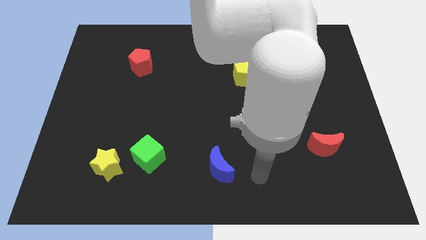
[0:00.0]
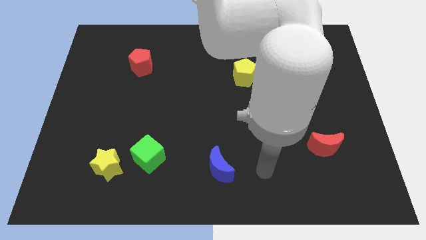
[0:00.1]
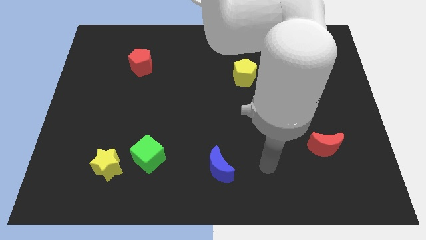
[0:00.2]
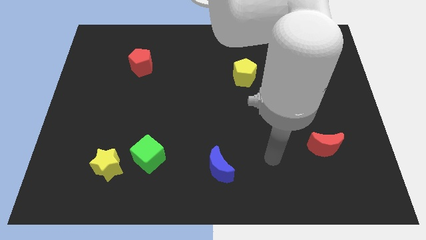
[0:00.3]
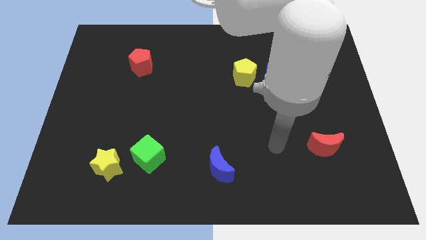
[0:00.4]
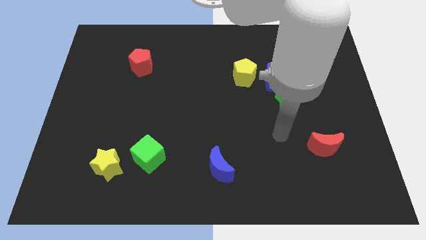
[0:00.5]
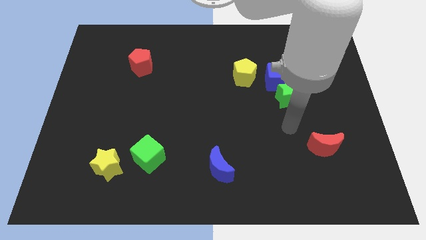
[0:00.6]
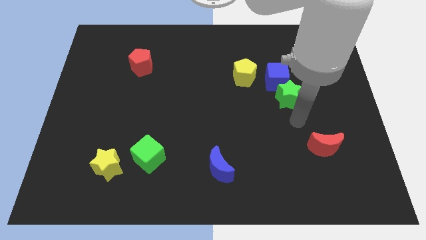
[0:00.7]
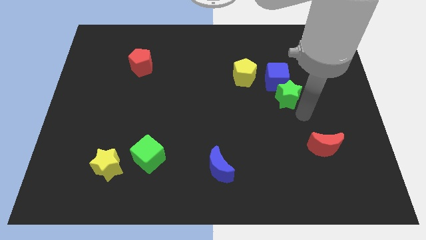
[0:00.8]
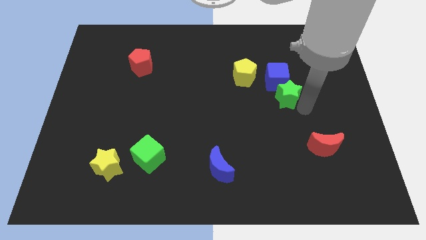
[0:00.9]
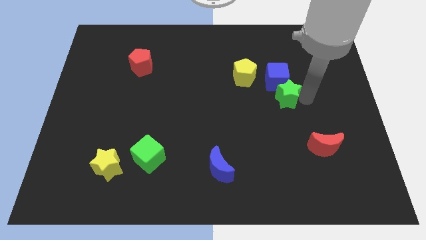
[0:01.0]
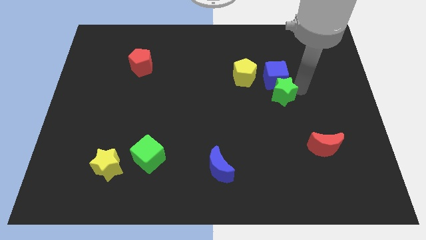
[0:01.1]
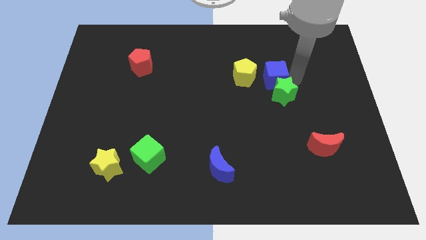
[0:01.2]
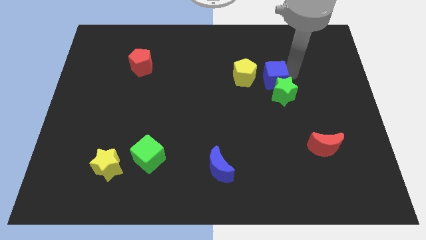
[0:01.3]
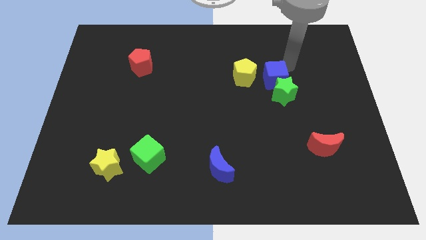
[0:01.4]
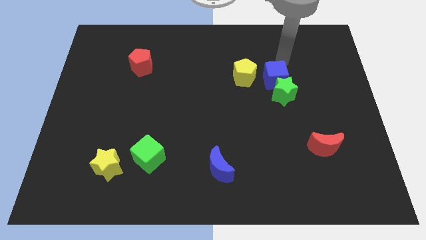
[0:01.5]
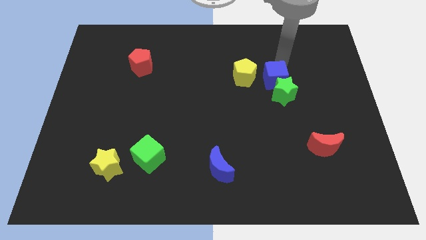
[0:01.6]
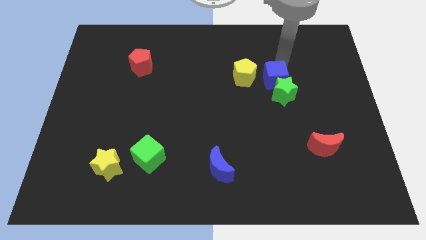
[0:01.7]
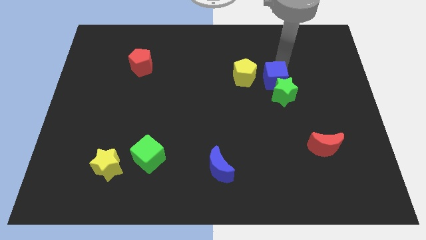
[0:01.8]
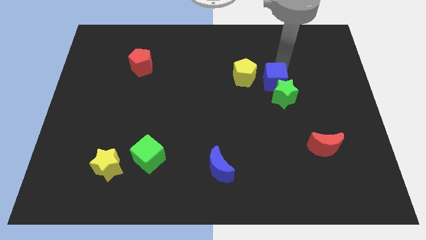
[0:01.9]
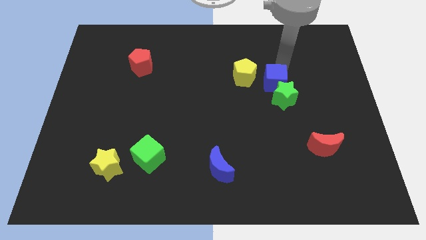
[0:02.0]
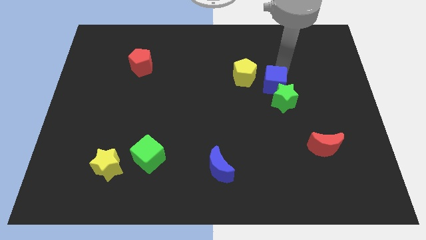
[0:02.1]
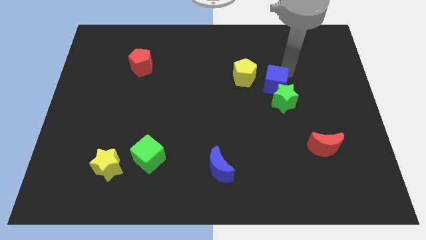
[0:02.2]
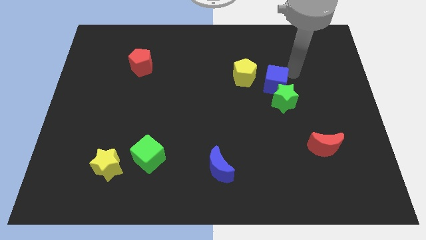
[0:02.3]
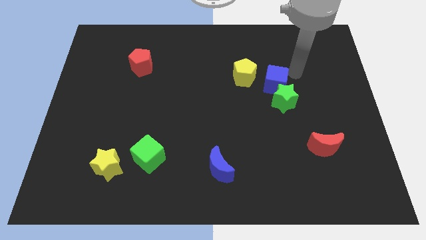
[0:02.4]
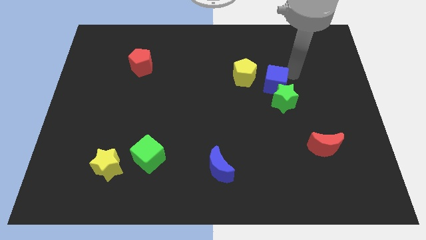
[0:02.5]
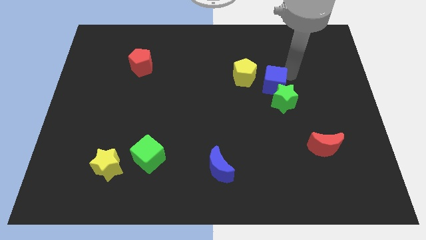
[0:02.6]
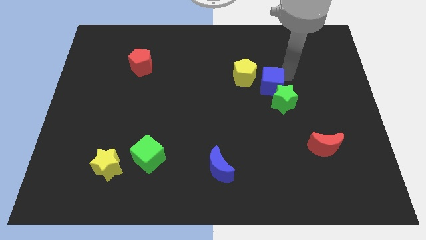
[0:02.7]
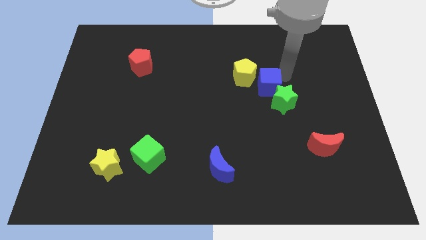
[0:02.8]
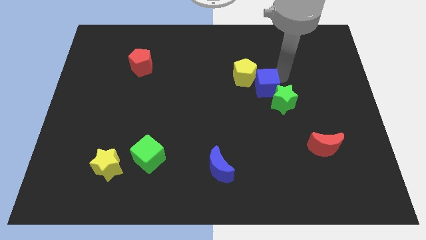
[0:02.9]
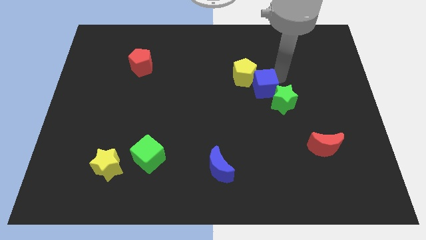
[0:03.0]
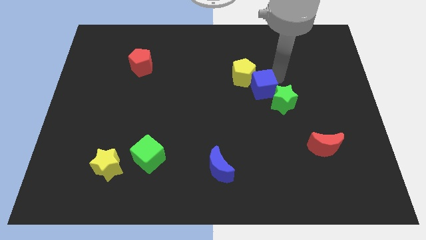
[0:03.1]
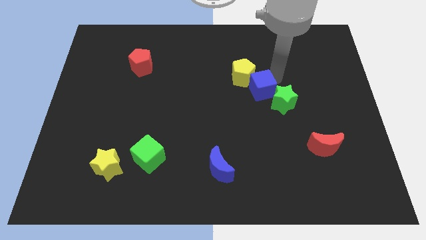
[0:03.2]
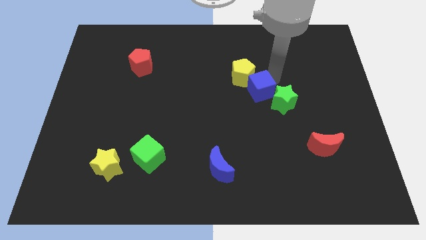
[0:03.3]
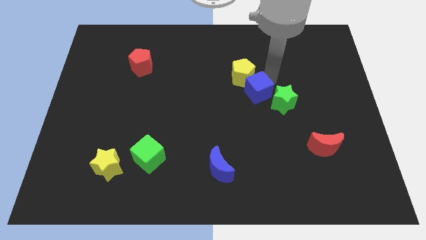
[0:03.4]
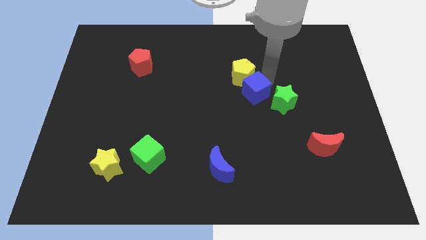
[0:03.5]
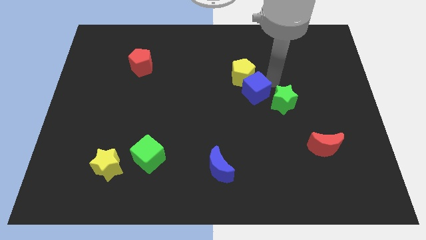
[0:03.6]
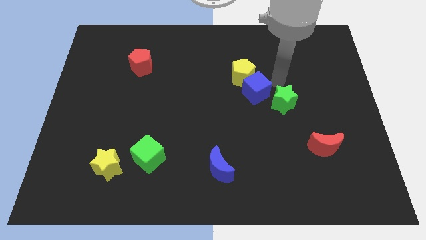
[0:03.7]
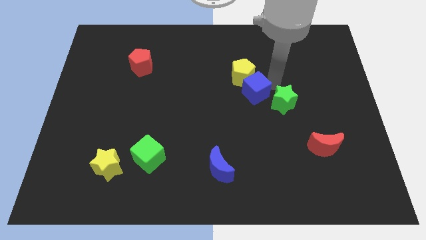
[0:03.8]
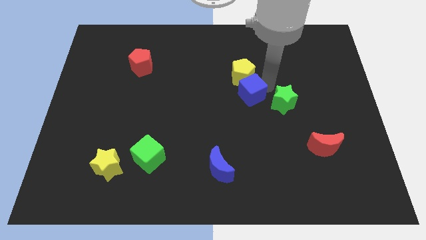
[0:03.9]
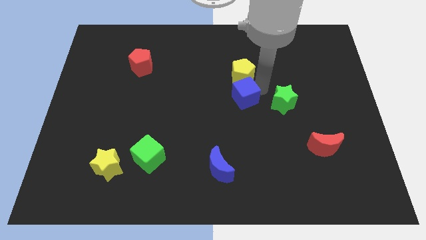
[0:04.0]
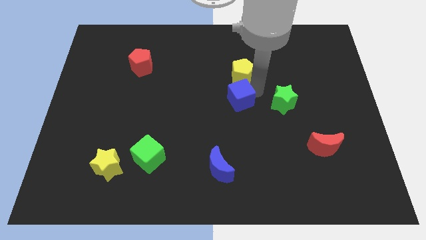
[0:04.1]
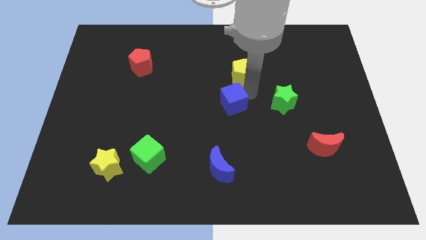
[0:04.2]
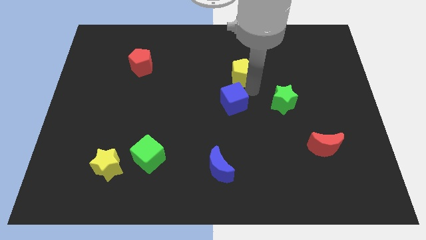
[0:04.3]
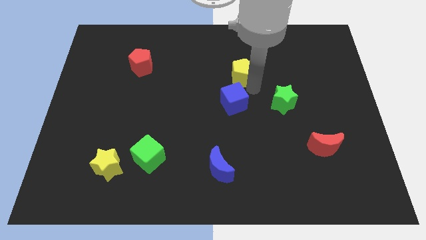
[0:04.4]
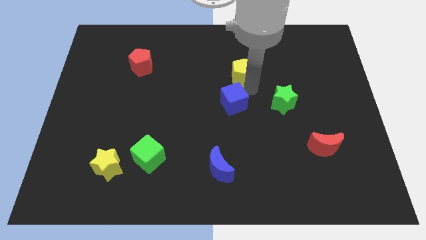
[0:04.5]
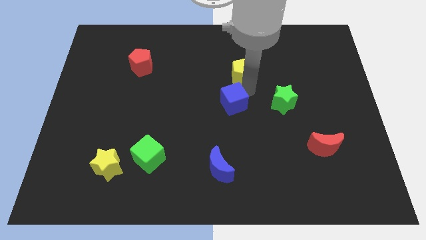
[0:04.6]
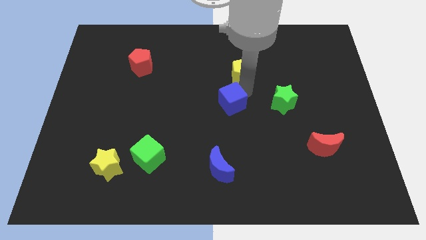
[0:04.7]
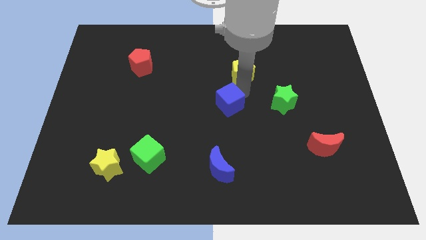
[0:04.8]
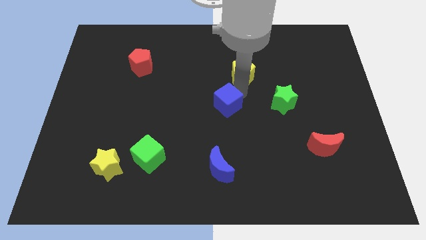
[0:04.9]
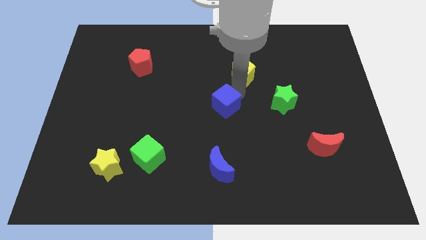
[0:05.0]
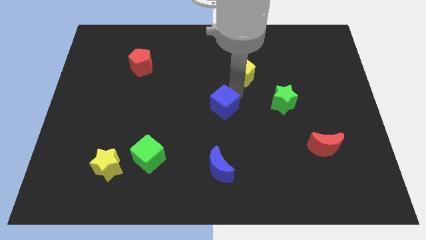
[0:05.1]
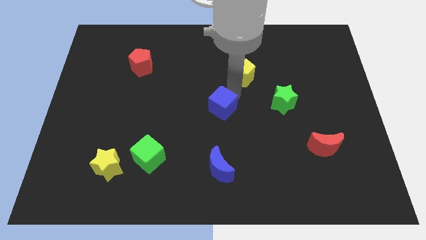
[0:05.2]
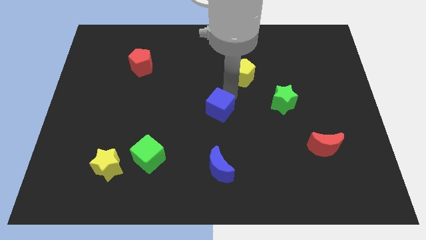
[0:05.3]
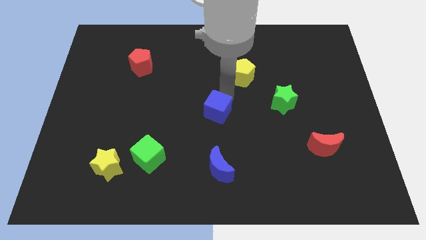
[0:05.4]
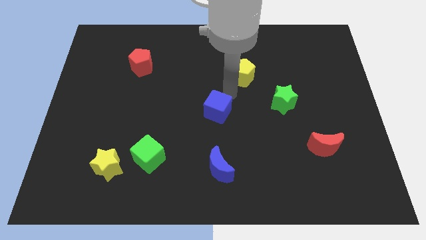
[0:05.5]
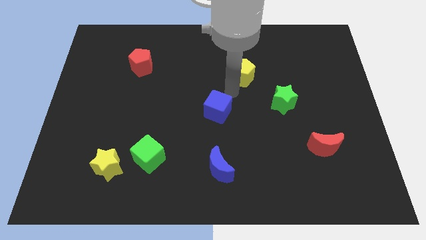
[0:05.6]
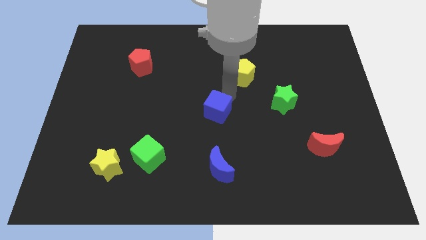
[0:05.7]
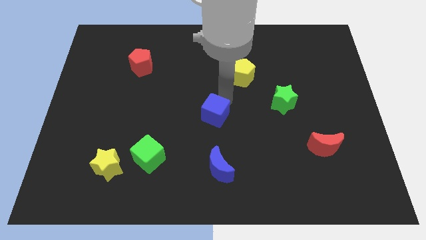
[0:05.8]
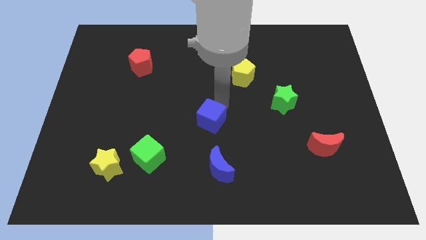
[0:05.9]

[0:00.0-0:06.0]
push the blue cube down and to the left

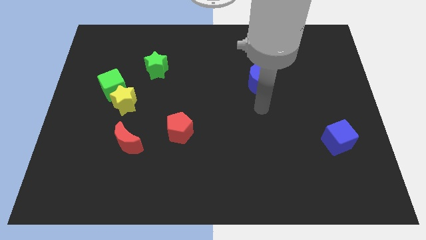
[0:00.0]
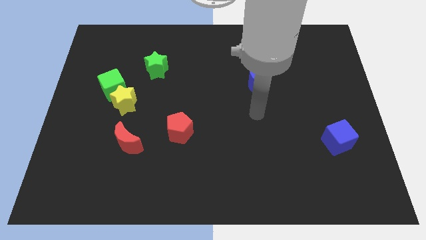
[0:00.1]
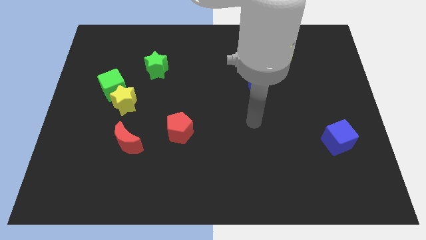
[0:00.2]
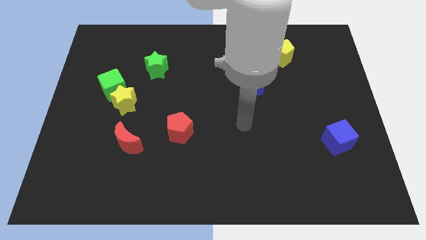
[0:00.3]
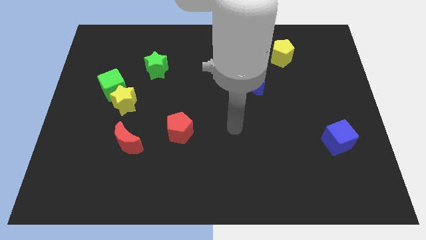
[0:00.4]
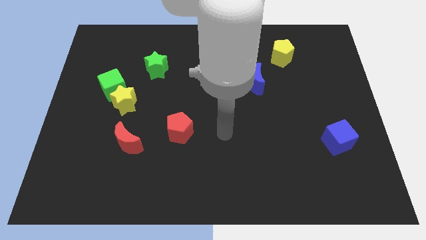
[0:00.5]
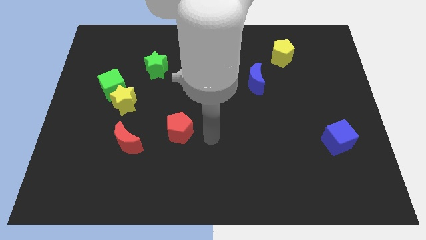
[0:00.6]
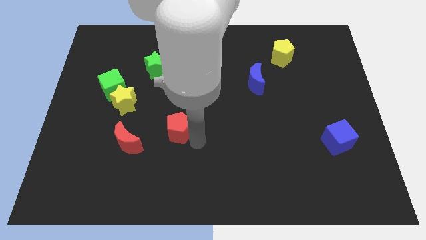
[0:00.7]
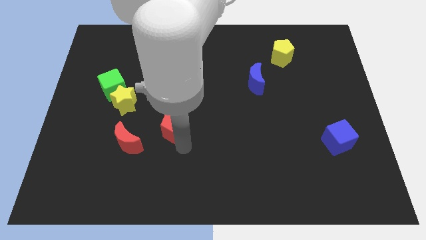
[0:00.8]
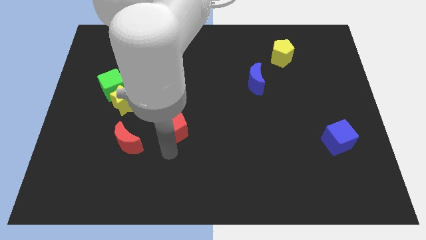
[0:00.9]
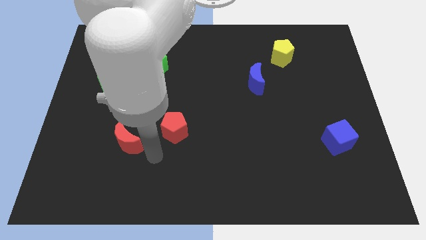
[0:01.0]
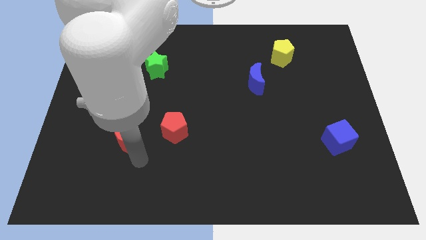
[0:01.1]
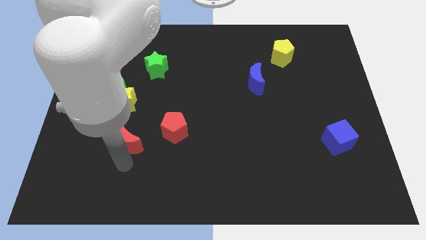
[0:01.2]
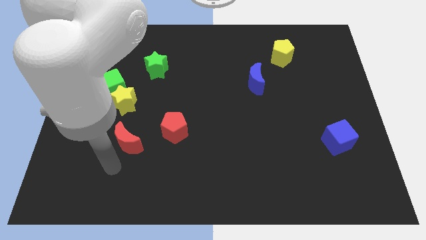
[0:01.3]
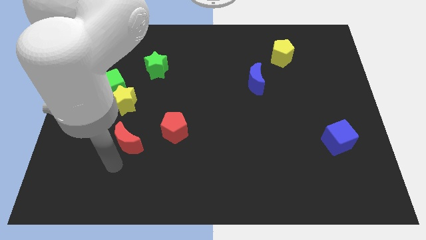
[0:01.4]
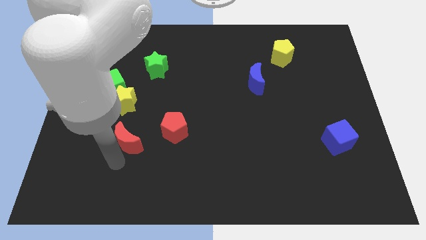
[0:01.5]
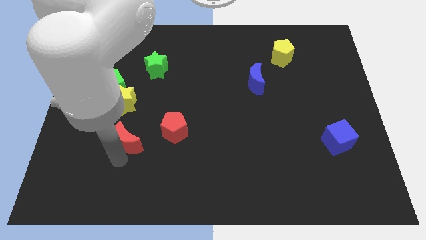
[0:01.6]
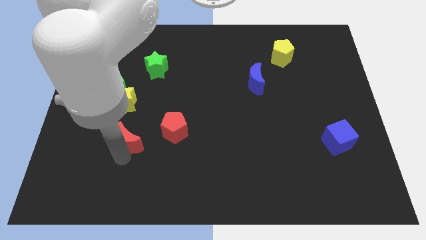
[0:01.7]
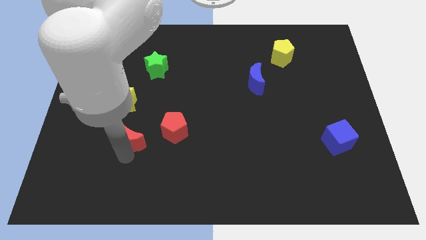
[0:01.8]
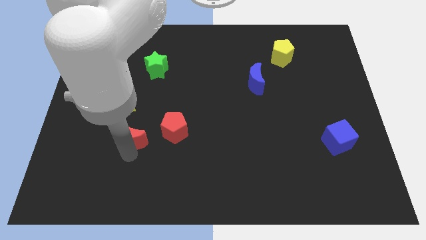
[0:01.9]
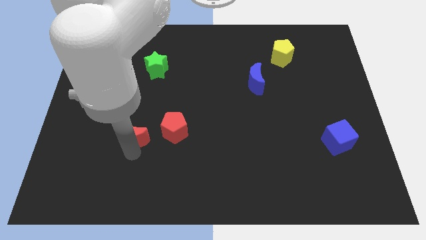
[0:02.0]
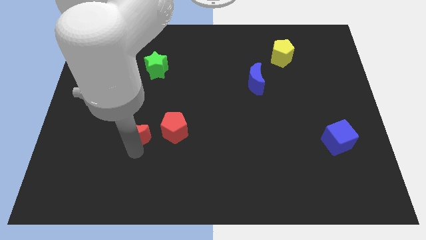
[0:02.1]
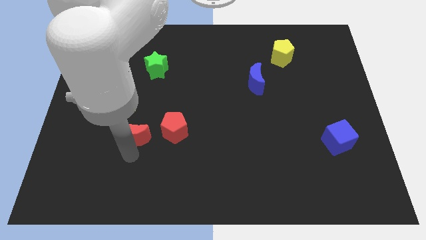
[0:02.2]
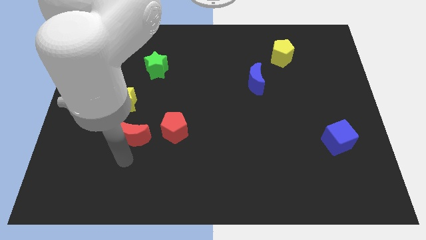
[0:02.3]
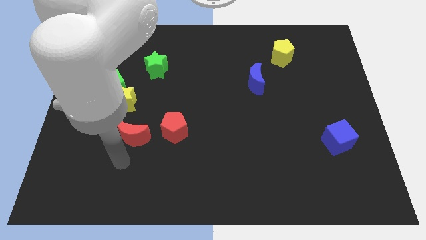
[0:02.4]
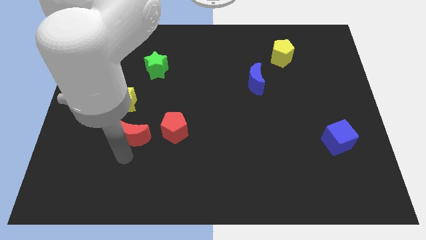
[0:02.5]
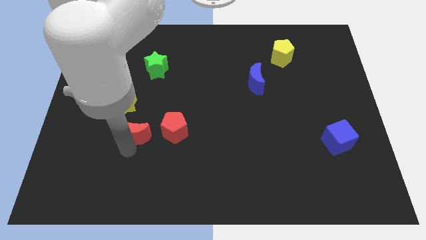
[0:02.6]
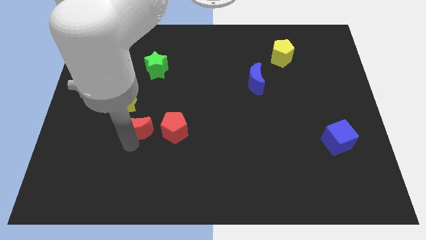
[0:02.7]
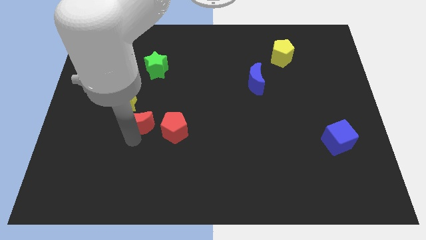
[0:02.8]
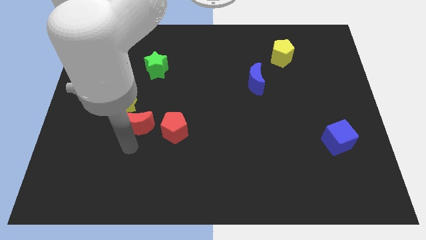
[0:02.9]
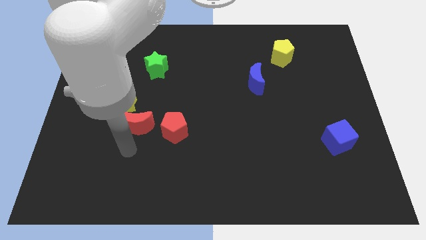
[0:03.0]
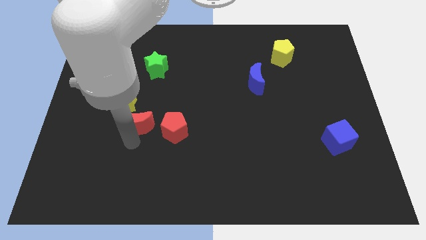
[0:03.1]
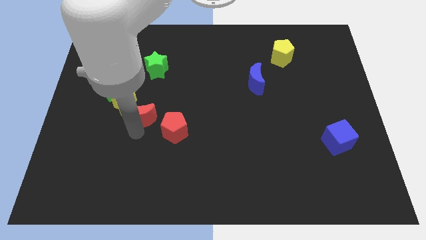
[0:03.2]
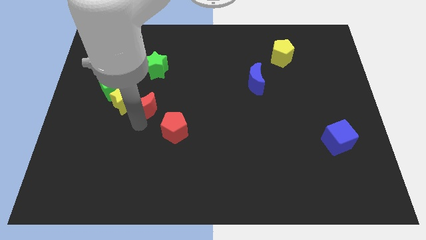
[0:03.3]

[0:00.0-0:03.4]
slightly move the red moon upwards
